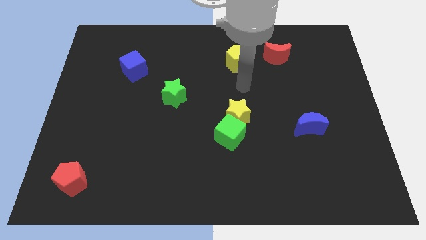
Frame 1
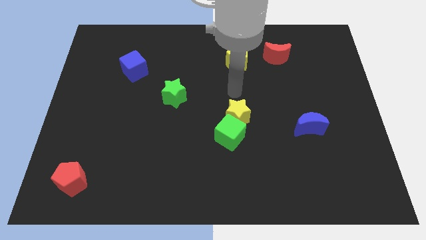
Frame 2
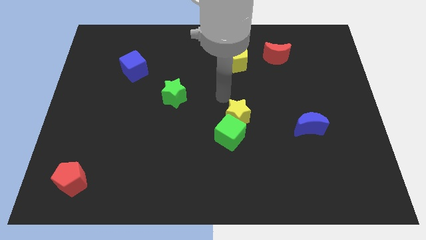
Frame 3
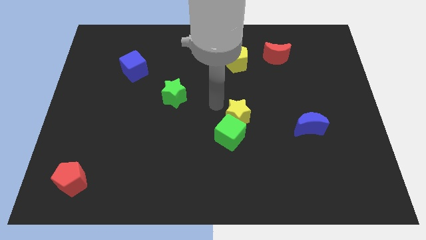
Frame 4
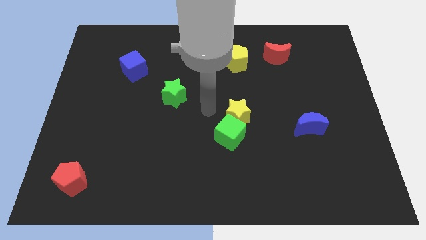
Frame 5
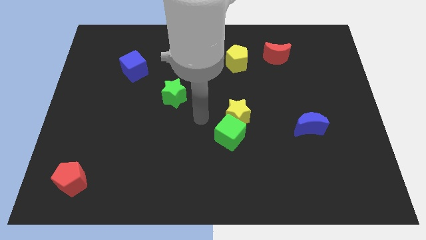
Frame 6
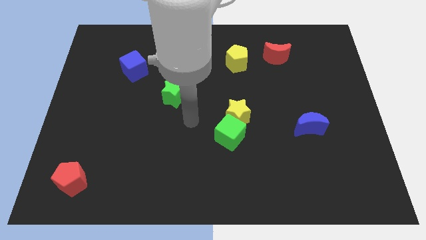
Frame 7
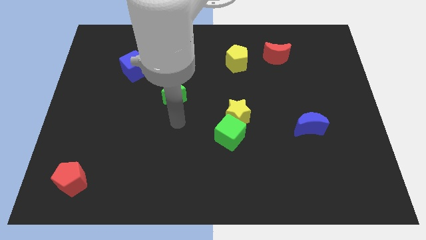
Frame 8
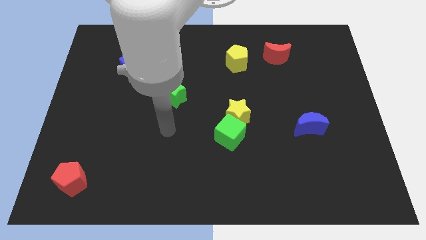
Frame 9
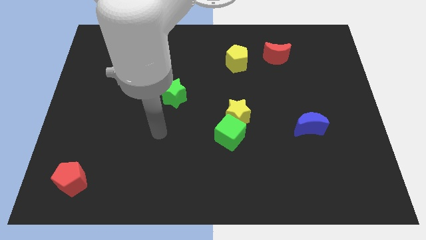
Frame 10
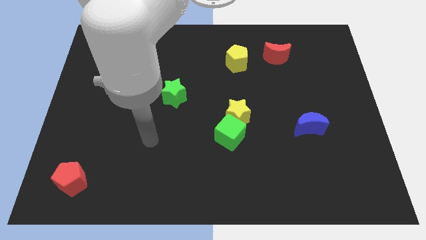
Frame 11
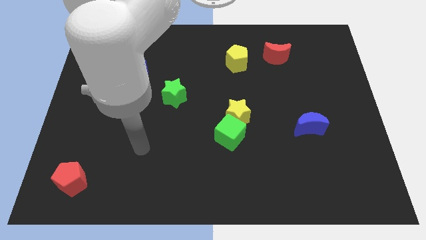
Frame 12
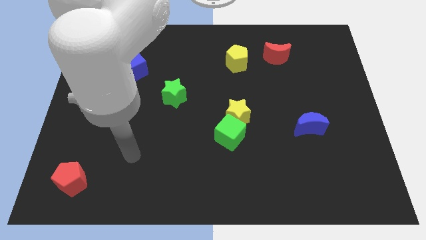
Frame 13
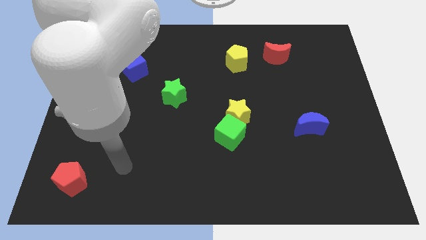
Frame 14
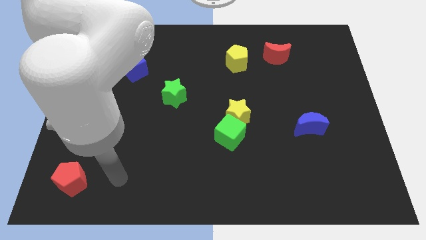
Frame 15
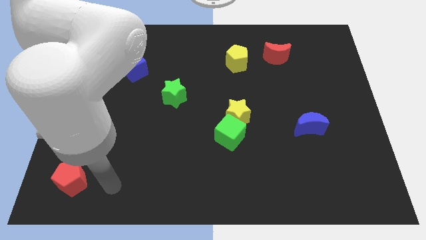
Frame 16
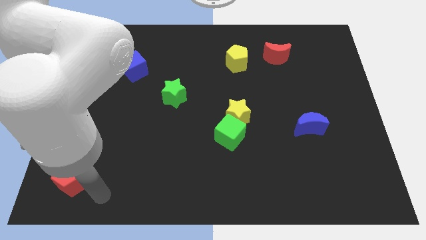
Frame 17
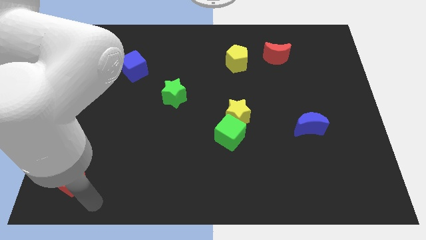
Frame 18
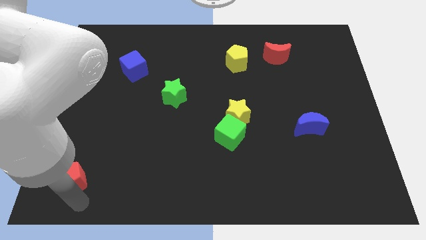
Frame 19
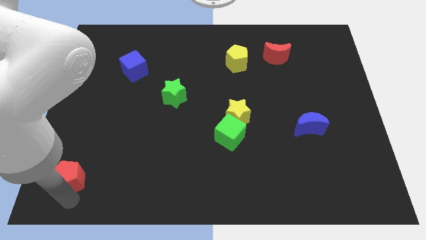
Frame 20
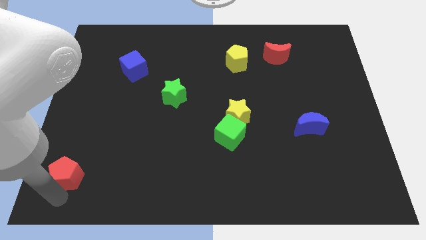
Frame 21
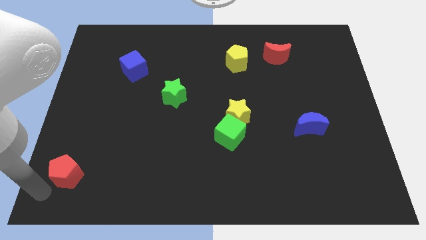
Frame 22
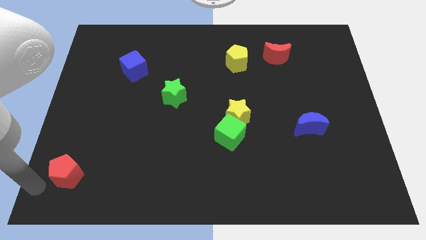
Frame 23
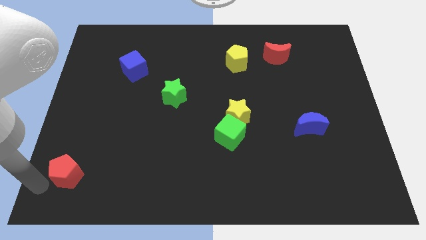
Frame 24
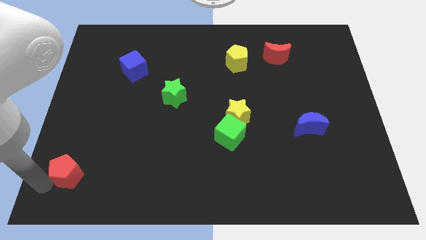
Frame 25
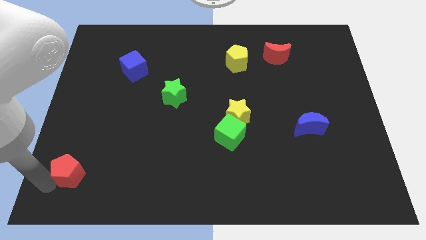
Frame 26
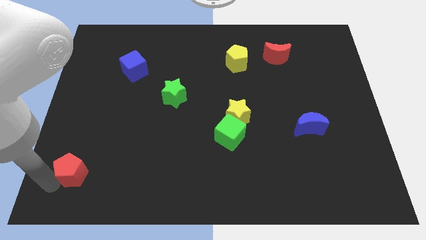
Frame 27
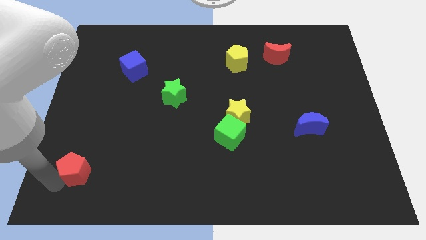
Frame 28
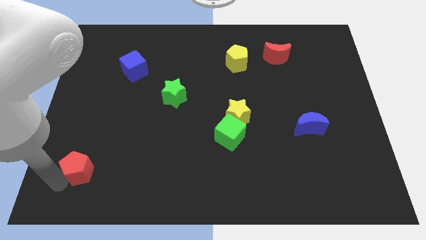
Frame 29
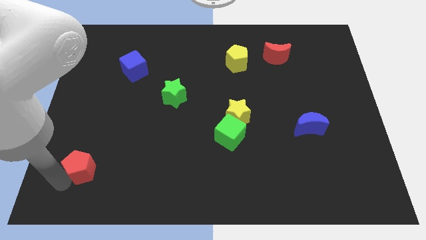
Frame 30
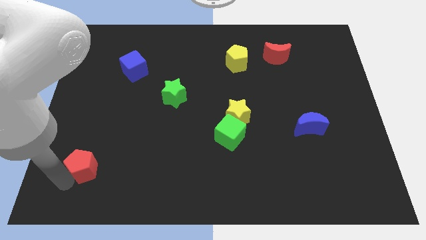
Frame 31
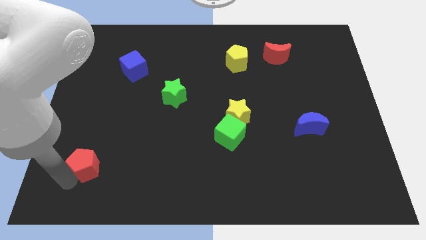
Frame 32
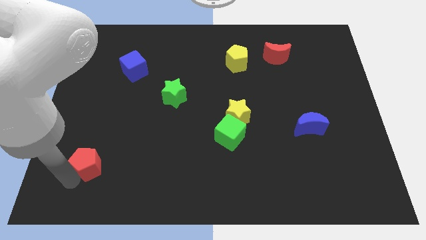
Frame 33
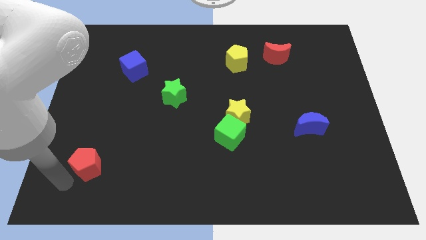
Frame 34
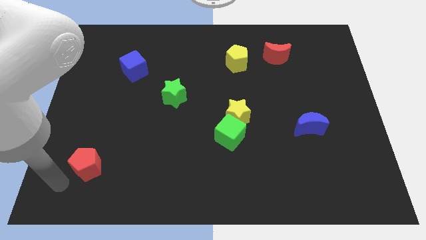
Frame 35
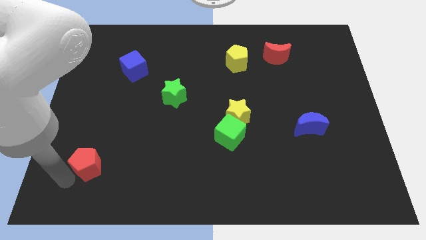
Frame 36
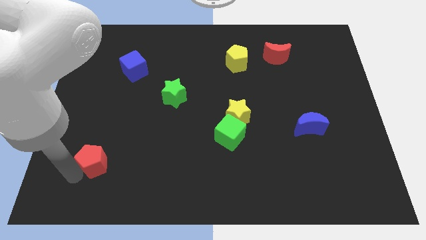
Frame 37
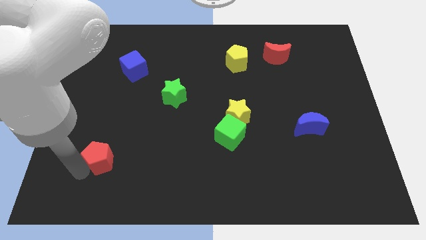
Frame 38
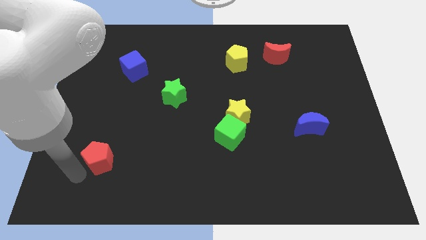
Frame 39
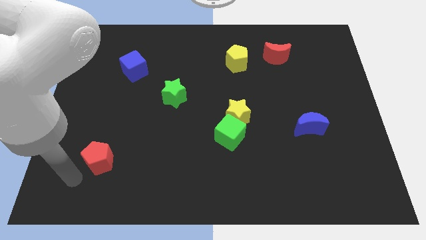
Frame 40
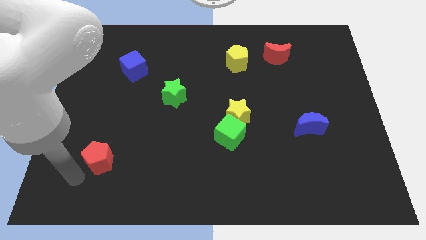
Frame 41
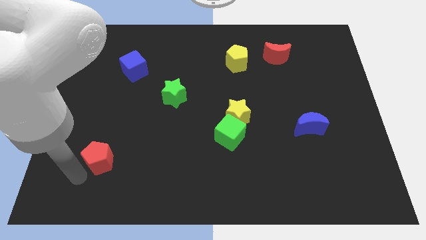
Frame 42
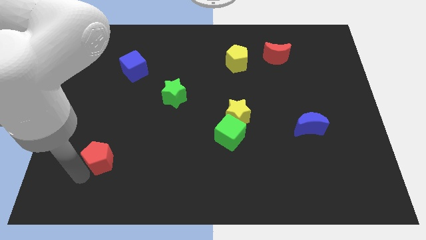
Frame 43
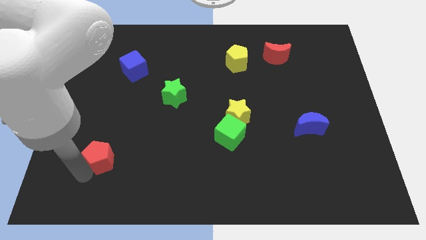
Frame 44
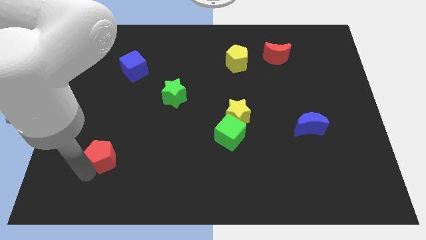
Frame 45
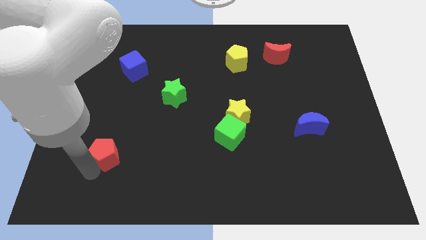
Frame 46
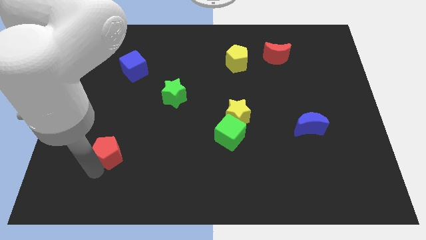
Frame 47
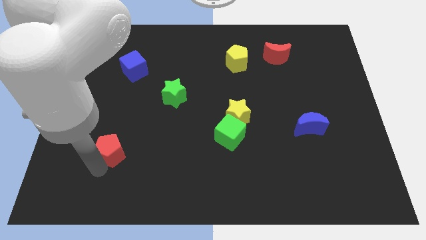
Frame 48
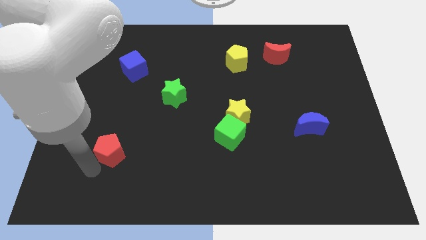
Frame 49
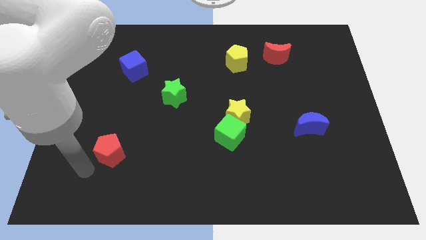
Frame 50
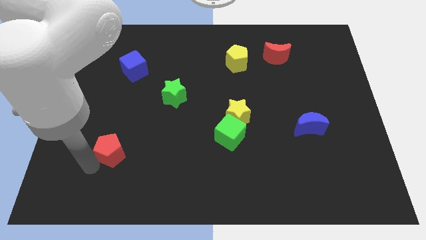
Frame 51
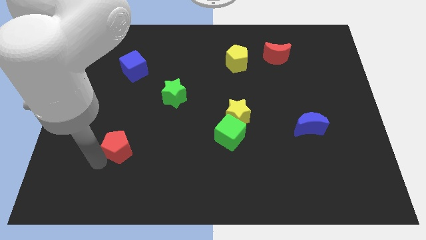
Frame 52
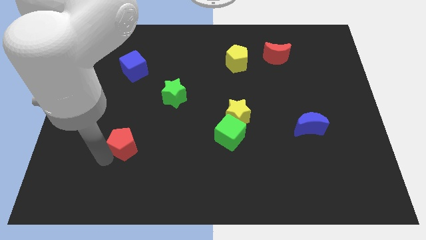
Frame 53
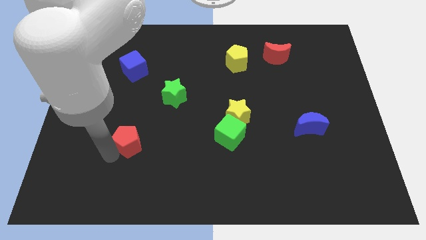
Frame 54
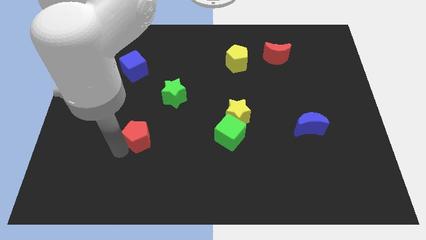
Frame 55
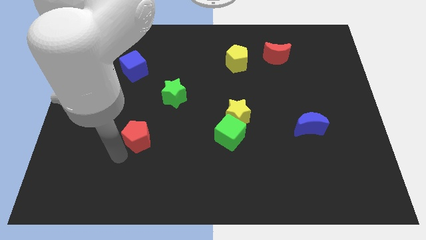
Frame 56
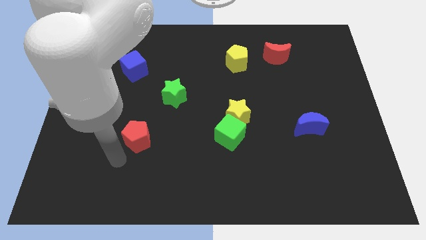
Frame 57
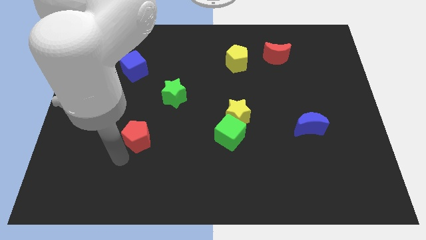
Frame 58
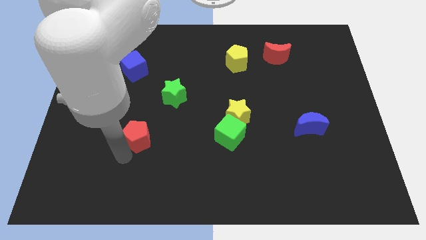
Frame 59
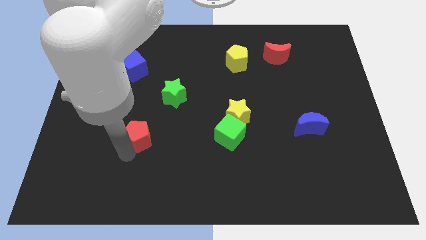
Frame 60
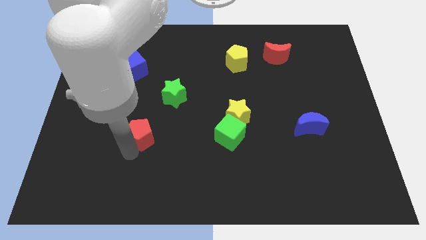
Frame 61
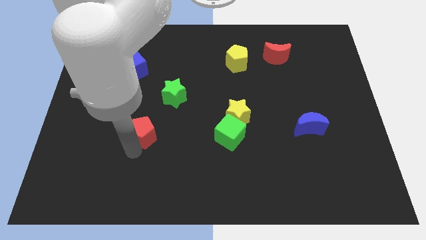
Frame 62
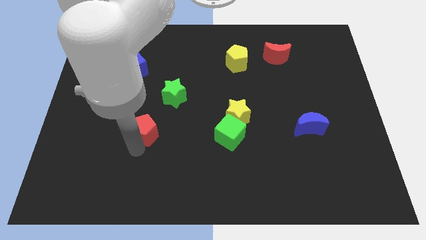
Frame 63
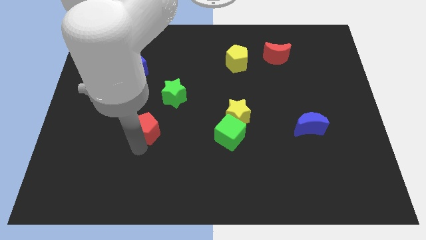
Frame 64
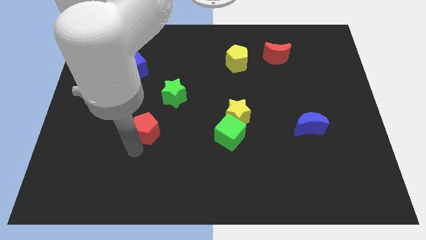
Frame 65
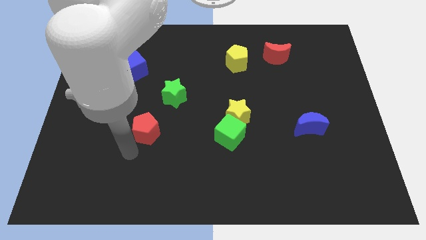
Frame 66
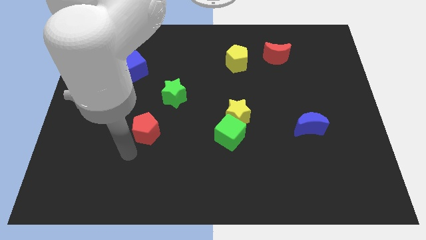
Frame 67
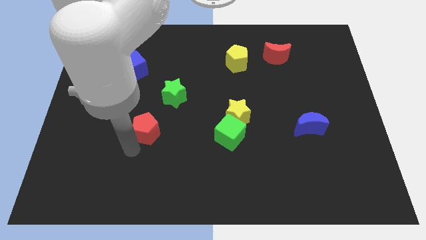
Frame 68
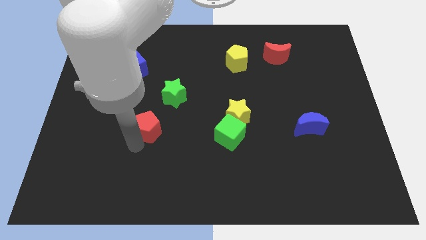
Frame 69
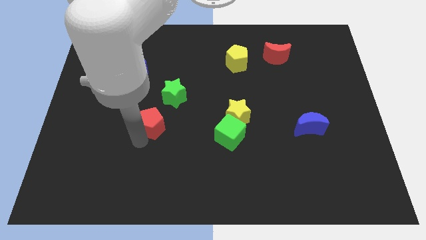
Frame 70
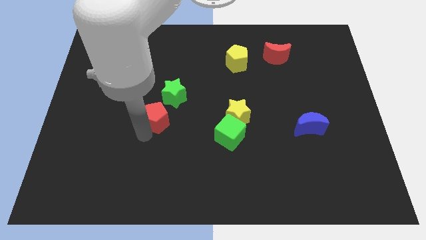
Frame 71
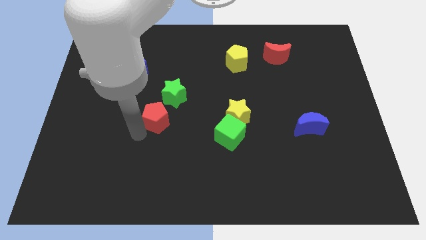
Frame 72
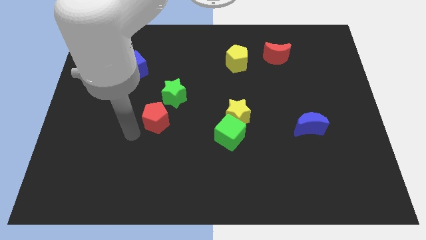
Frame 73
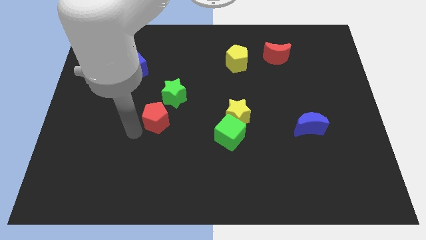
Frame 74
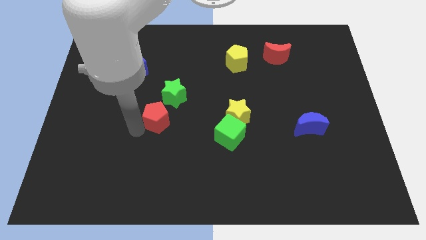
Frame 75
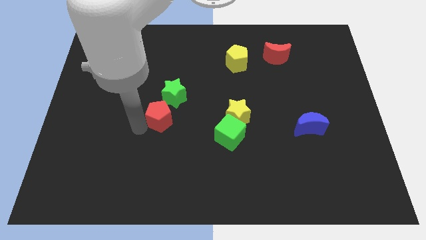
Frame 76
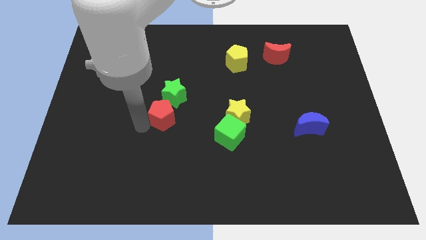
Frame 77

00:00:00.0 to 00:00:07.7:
slide the red pentagon to the center
